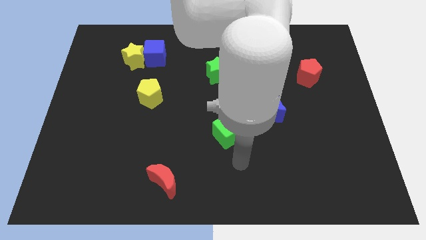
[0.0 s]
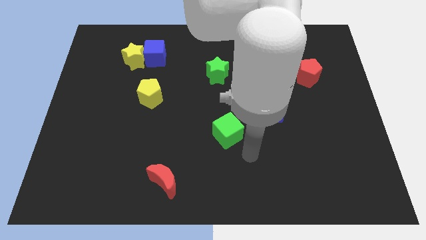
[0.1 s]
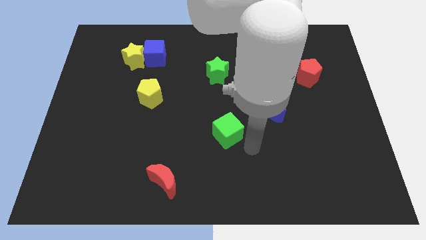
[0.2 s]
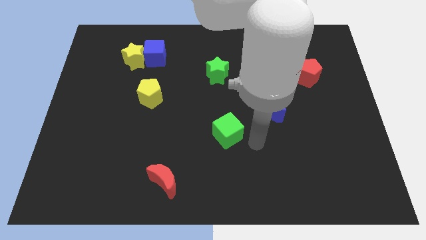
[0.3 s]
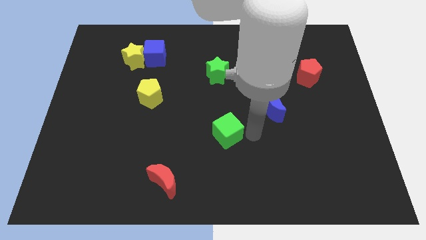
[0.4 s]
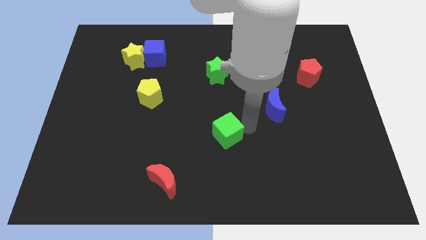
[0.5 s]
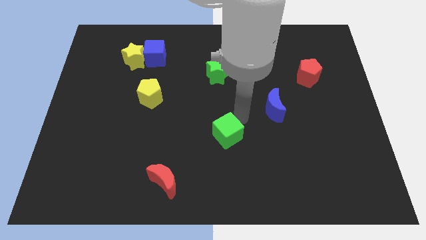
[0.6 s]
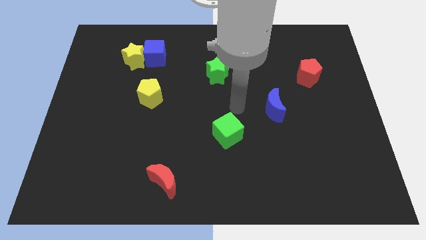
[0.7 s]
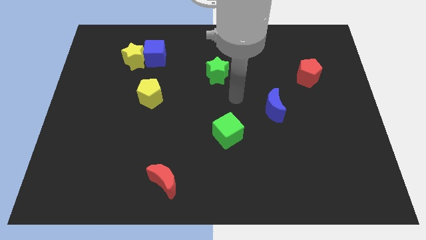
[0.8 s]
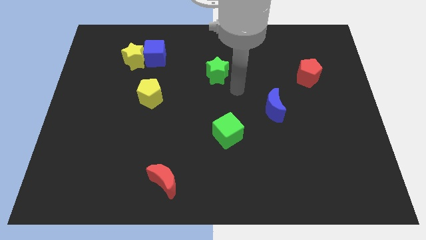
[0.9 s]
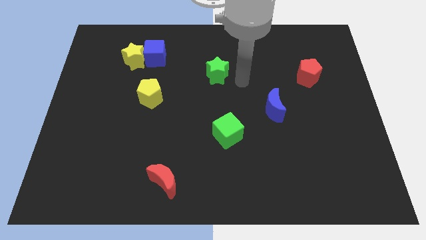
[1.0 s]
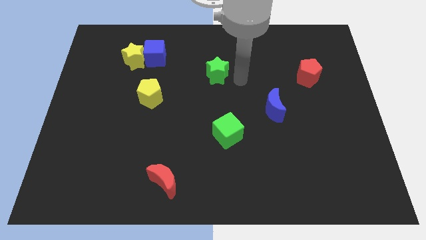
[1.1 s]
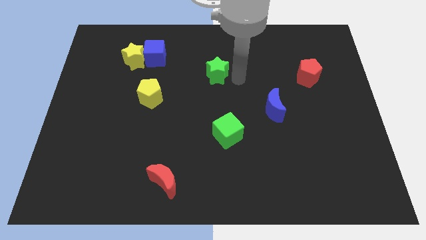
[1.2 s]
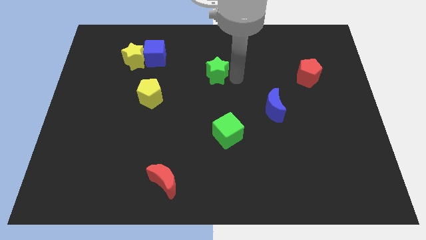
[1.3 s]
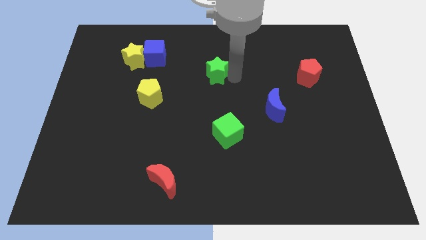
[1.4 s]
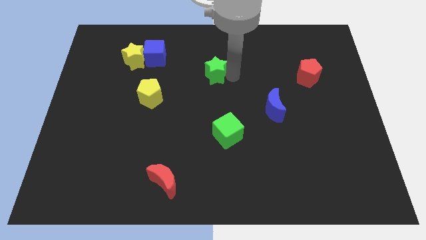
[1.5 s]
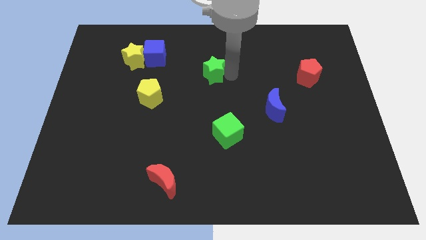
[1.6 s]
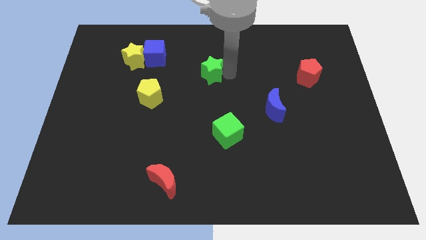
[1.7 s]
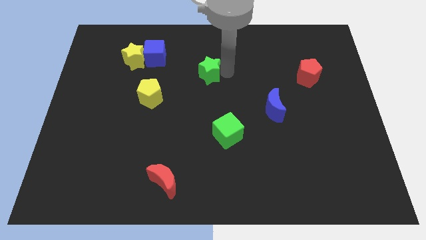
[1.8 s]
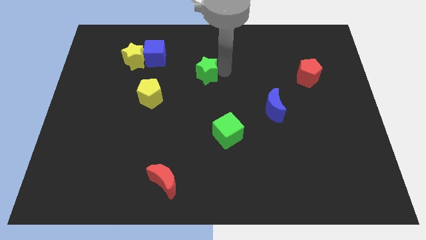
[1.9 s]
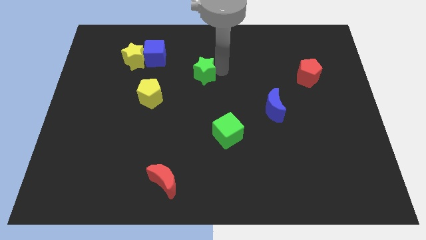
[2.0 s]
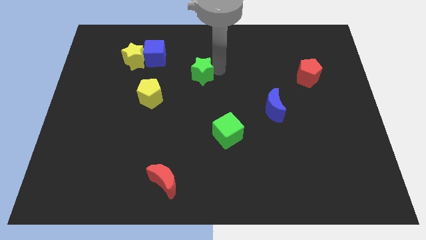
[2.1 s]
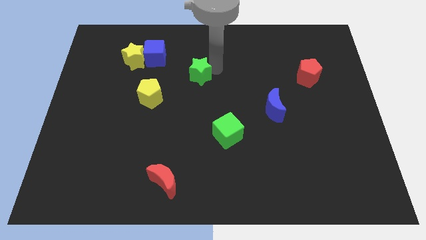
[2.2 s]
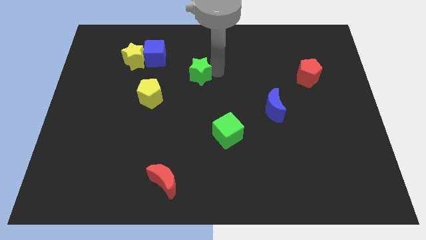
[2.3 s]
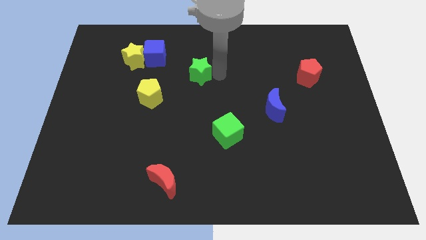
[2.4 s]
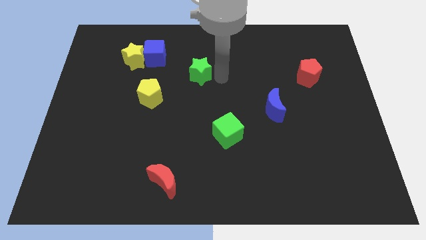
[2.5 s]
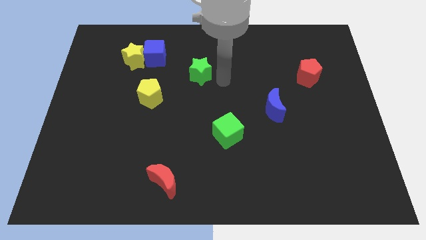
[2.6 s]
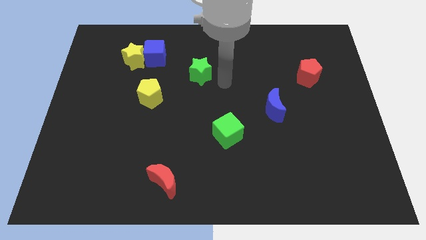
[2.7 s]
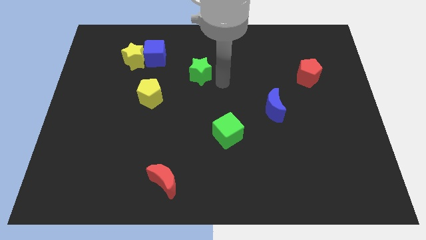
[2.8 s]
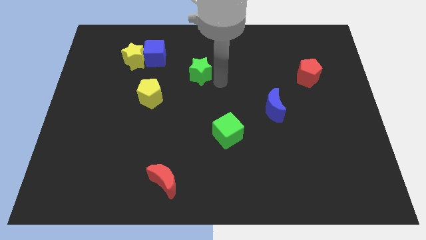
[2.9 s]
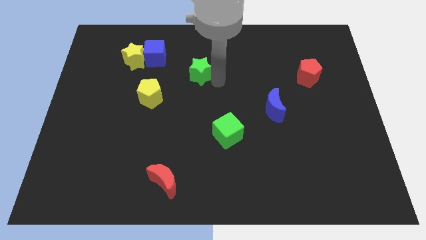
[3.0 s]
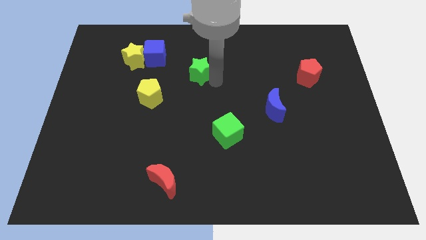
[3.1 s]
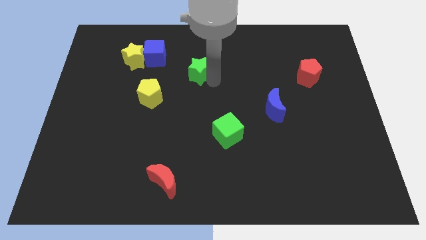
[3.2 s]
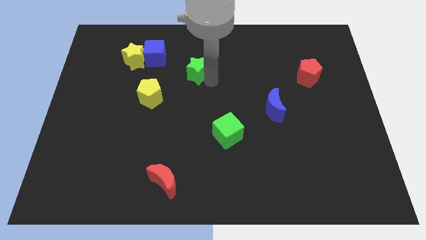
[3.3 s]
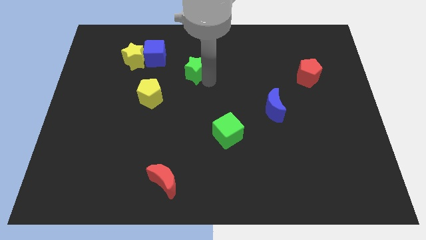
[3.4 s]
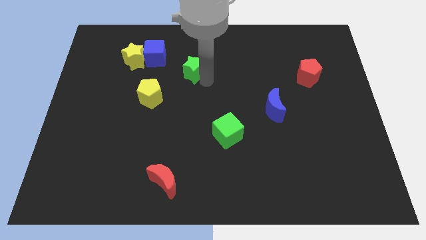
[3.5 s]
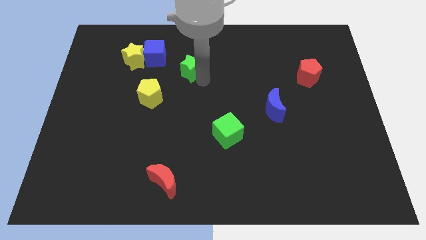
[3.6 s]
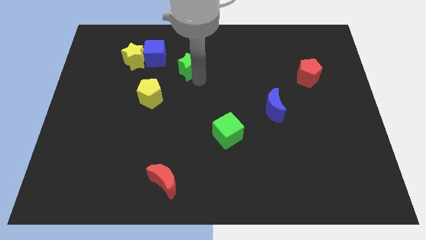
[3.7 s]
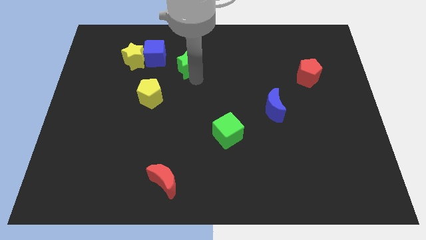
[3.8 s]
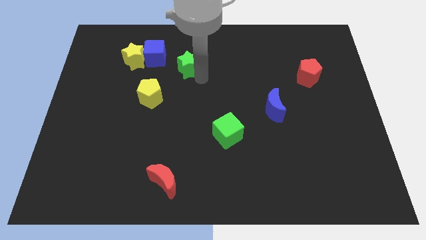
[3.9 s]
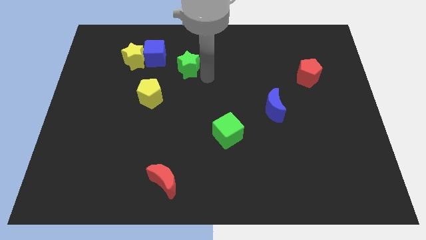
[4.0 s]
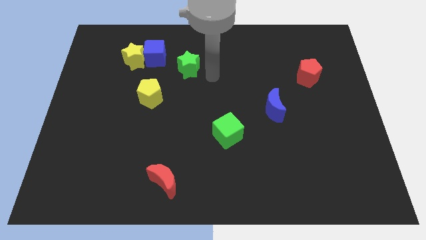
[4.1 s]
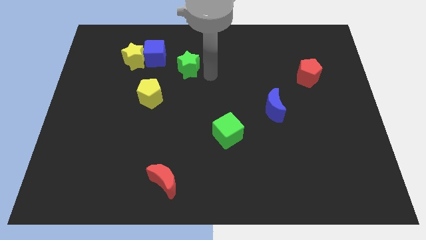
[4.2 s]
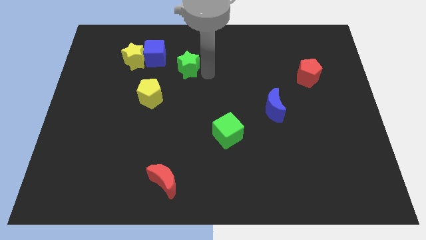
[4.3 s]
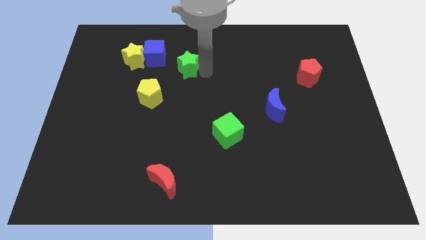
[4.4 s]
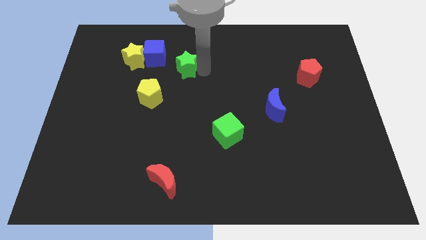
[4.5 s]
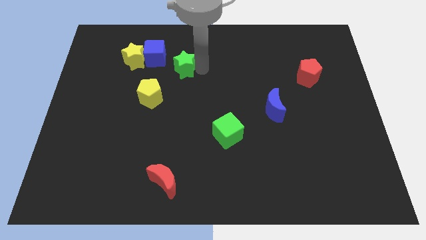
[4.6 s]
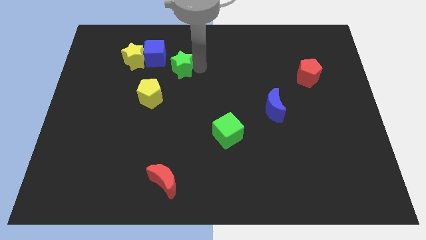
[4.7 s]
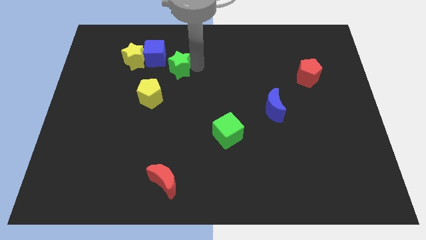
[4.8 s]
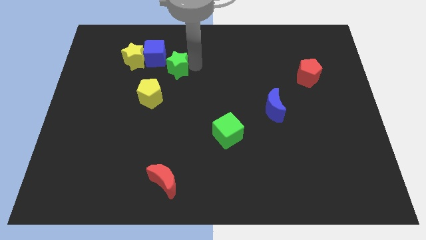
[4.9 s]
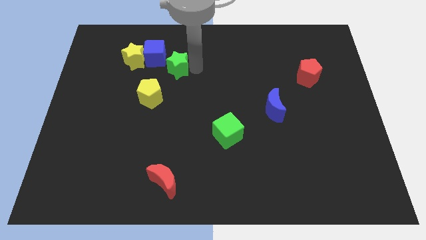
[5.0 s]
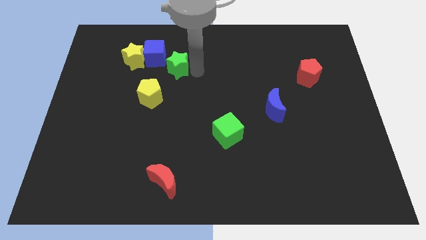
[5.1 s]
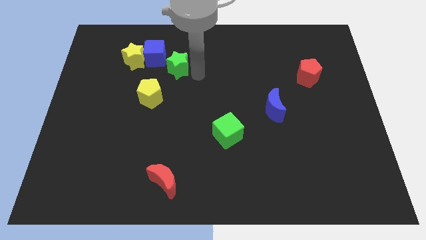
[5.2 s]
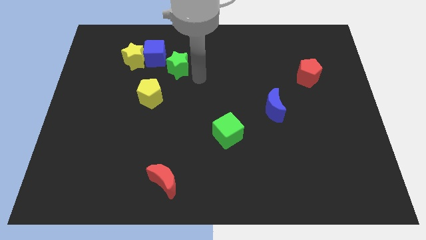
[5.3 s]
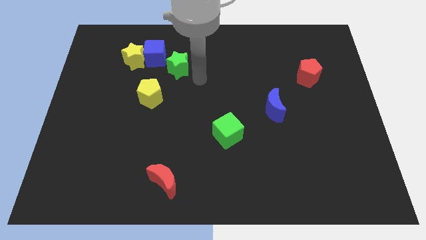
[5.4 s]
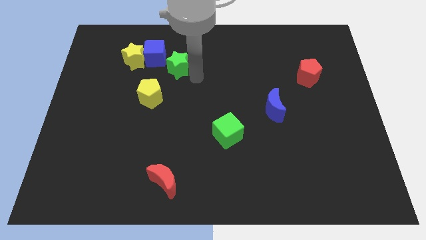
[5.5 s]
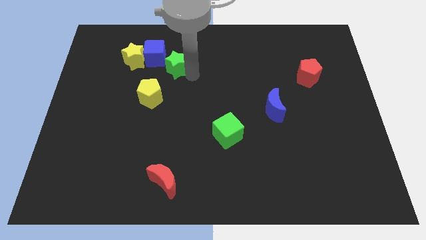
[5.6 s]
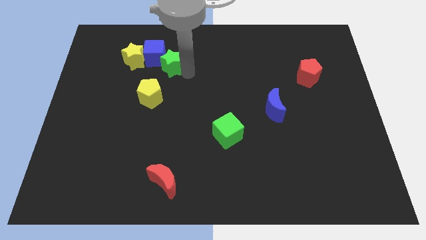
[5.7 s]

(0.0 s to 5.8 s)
push the green star to the blue cube

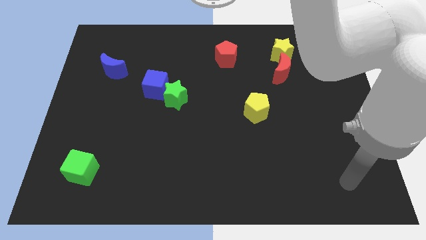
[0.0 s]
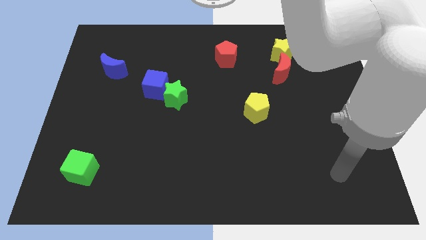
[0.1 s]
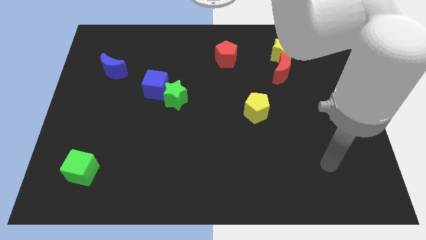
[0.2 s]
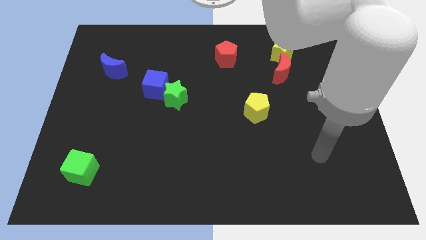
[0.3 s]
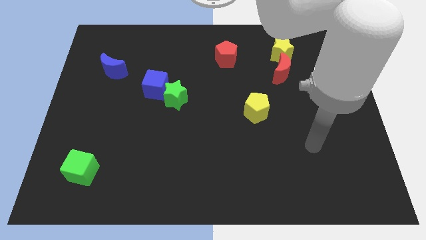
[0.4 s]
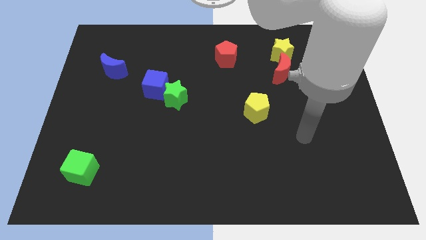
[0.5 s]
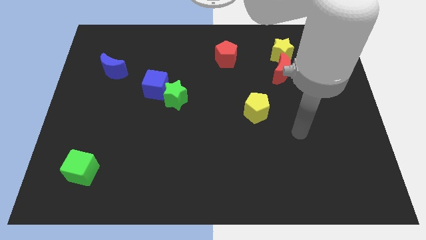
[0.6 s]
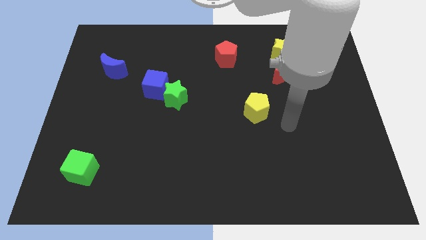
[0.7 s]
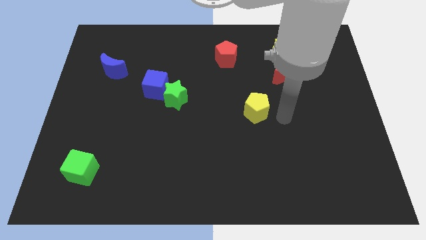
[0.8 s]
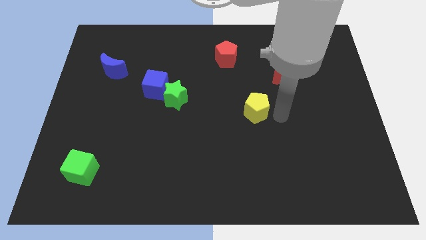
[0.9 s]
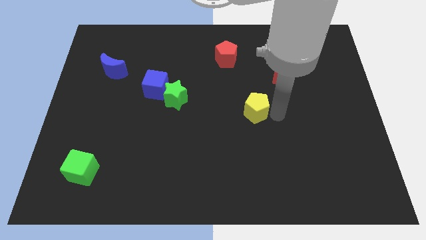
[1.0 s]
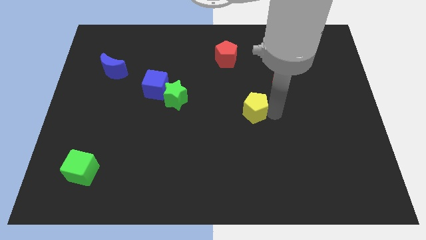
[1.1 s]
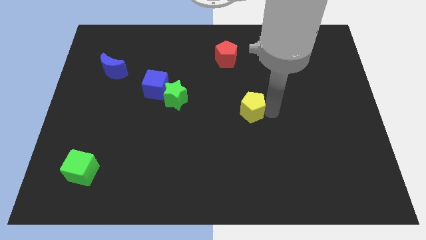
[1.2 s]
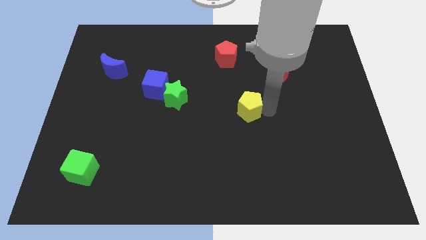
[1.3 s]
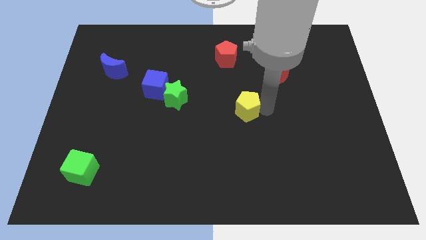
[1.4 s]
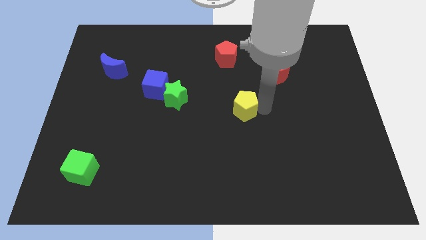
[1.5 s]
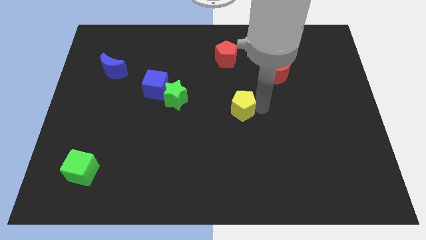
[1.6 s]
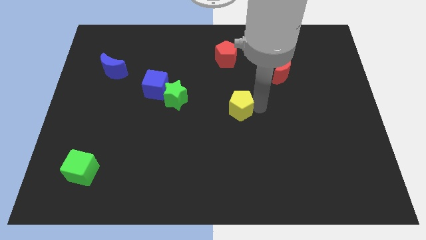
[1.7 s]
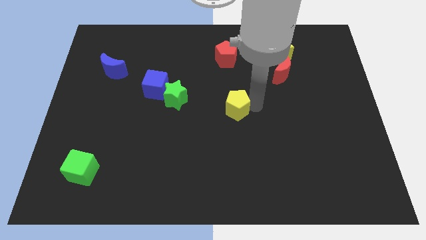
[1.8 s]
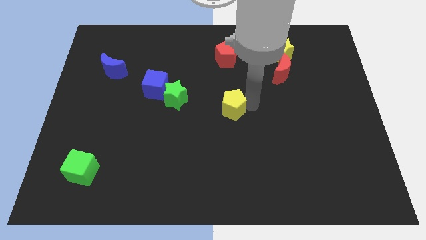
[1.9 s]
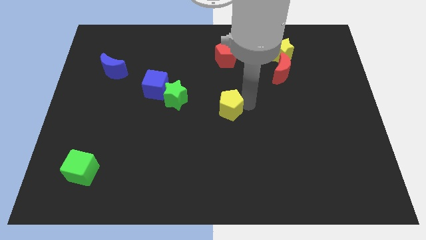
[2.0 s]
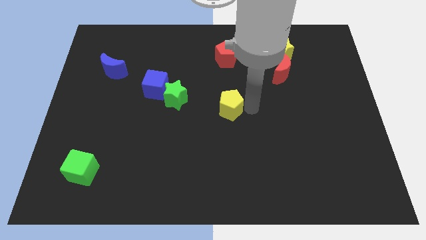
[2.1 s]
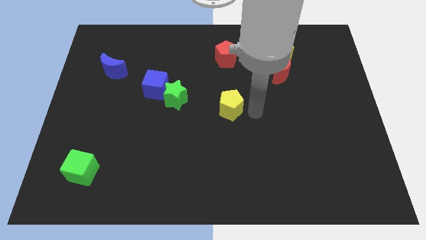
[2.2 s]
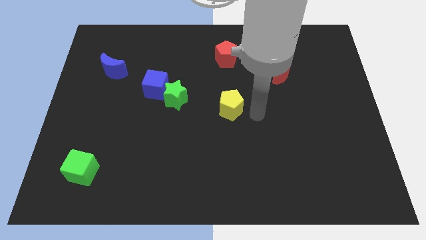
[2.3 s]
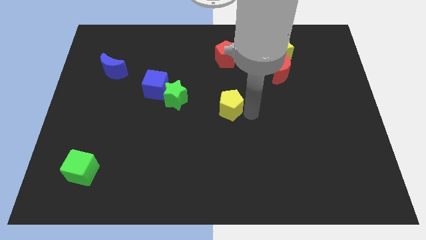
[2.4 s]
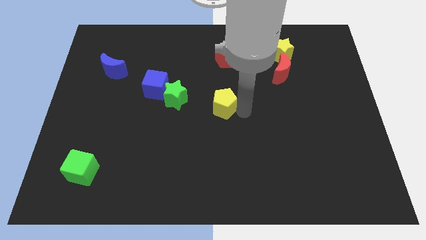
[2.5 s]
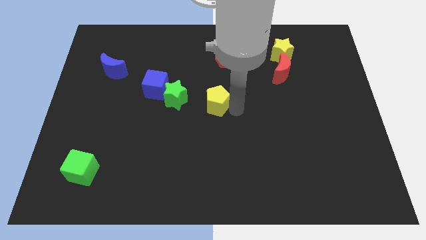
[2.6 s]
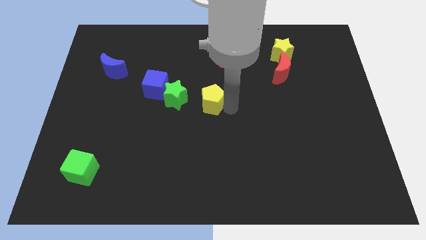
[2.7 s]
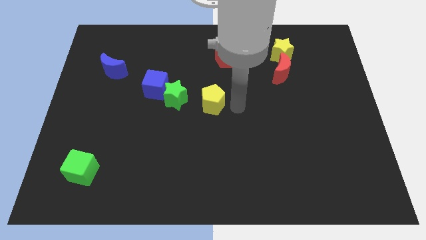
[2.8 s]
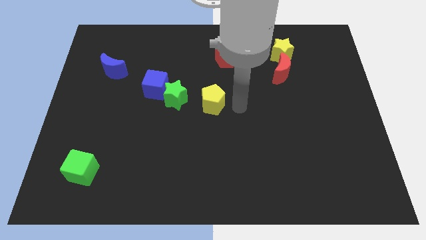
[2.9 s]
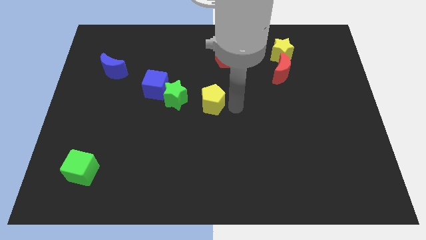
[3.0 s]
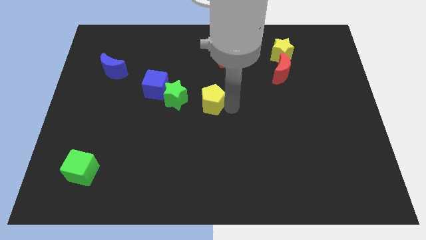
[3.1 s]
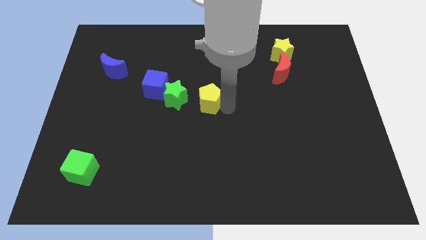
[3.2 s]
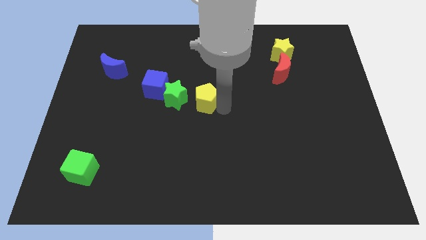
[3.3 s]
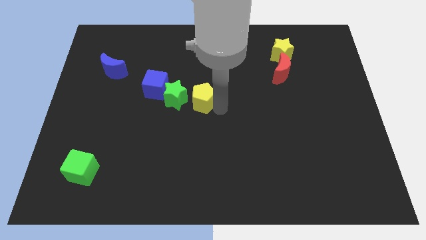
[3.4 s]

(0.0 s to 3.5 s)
slide the yellow pentagon next to the green star
